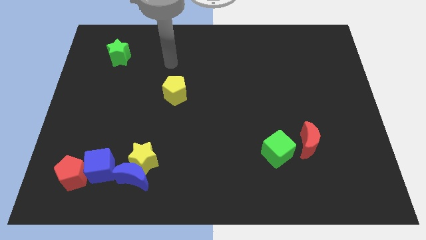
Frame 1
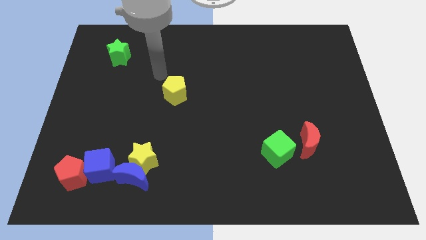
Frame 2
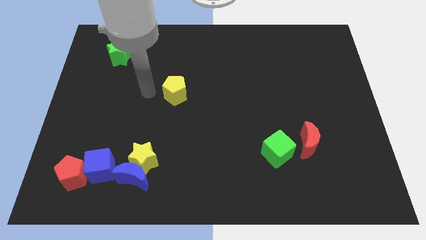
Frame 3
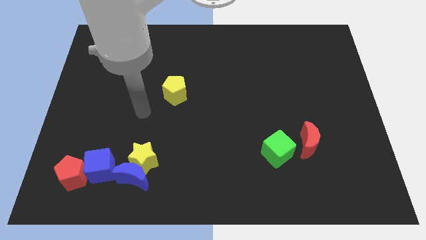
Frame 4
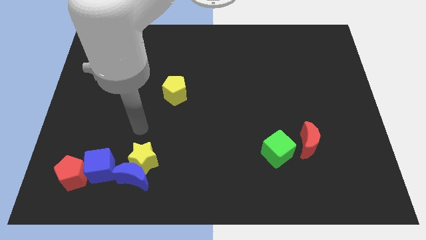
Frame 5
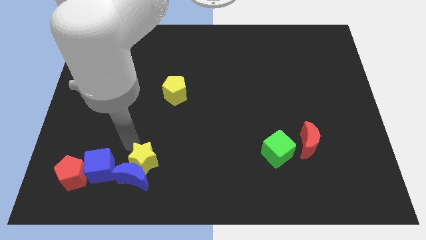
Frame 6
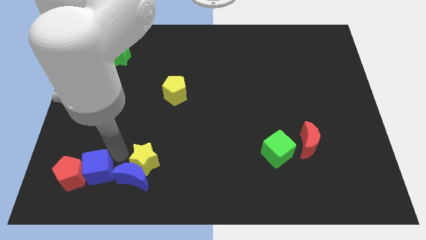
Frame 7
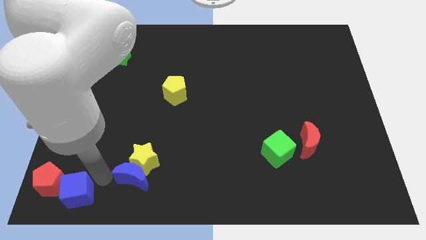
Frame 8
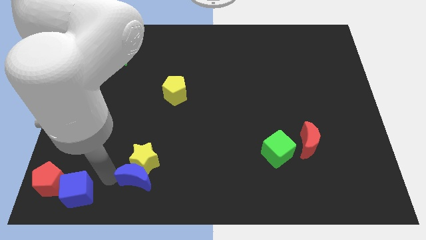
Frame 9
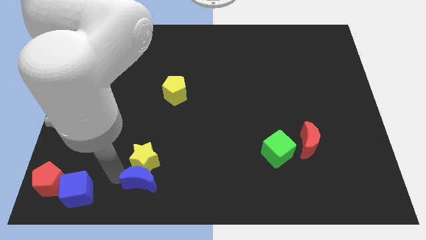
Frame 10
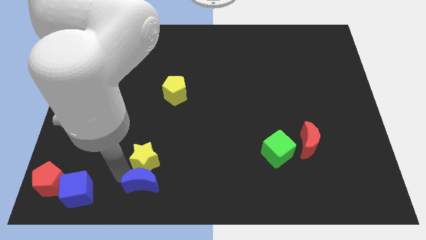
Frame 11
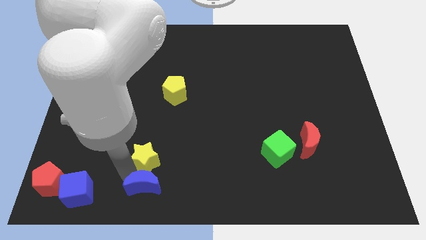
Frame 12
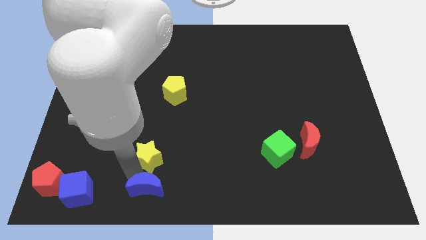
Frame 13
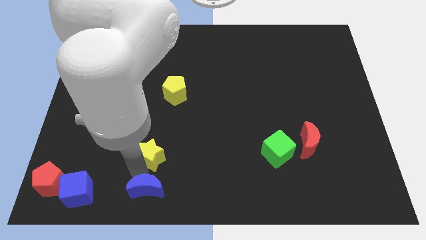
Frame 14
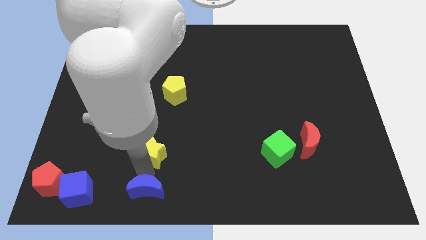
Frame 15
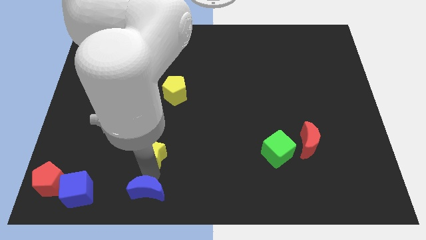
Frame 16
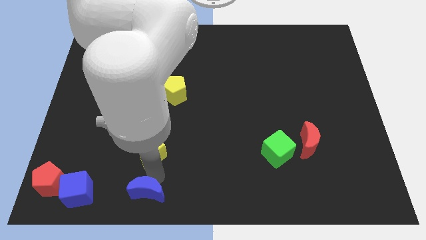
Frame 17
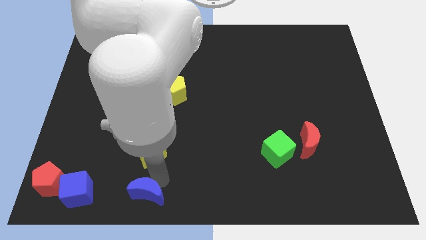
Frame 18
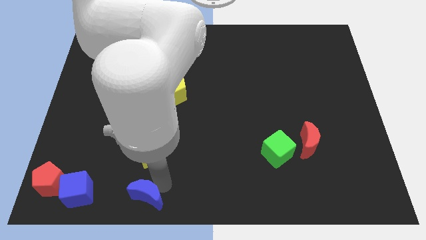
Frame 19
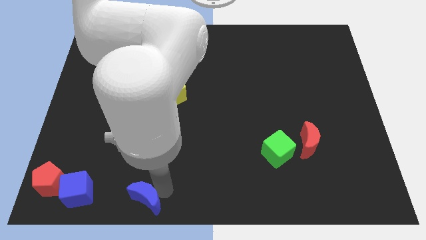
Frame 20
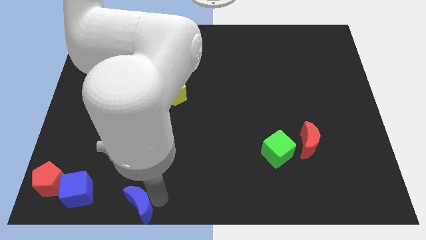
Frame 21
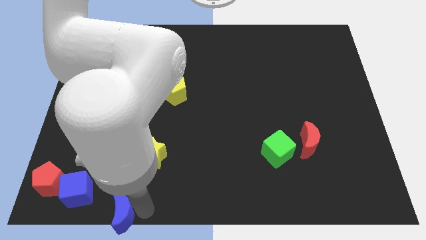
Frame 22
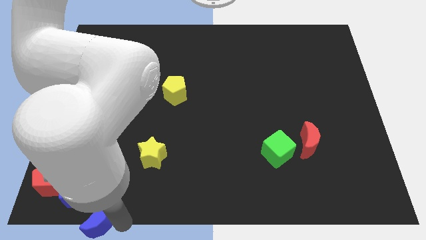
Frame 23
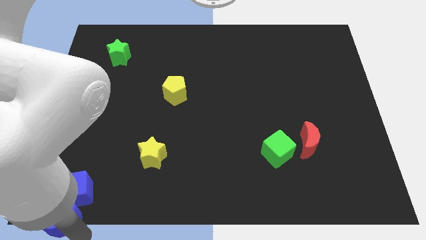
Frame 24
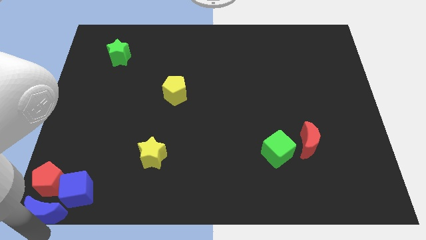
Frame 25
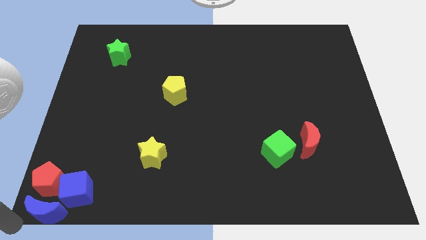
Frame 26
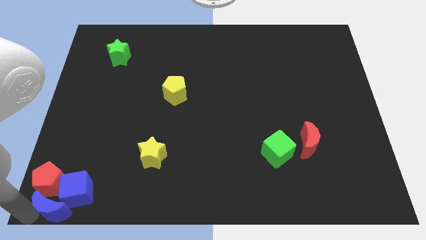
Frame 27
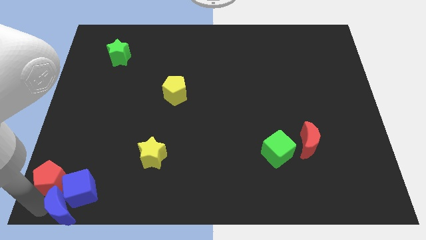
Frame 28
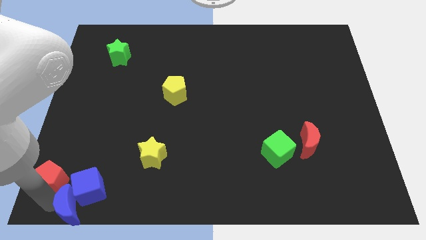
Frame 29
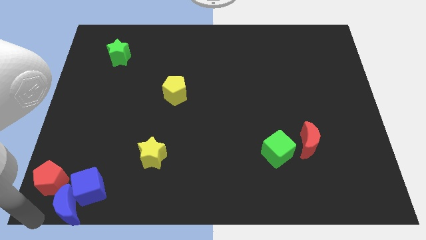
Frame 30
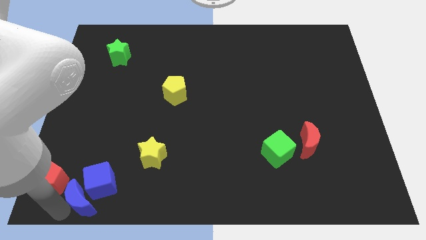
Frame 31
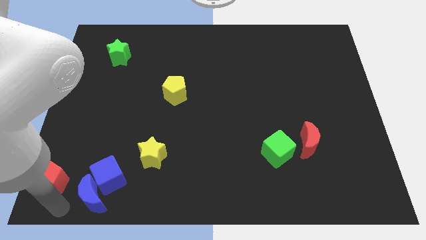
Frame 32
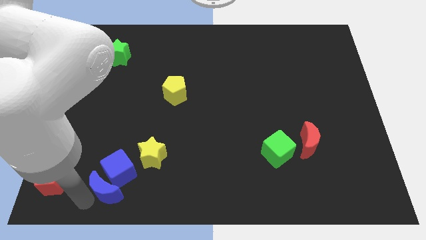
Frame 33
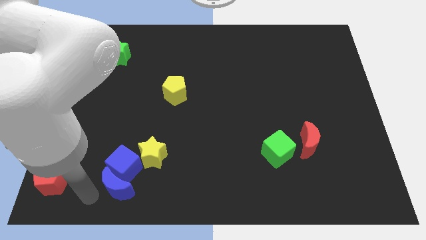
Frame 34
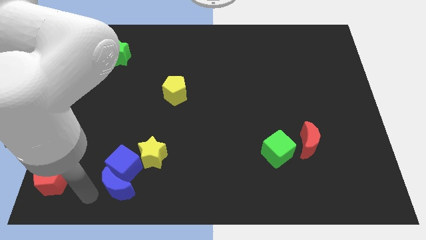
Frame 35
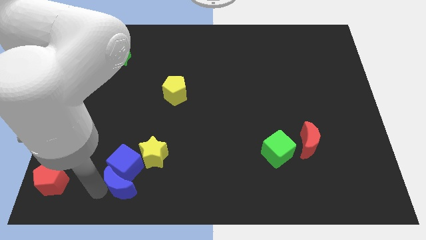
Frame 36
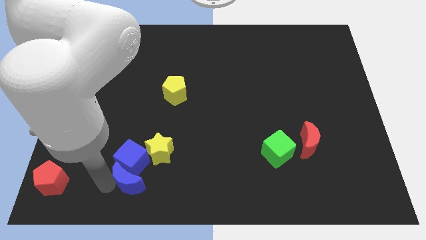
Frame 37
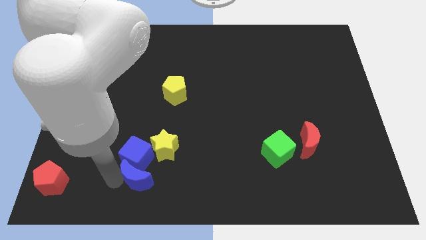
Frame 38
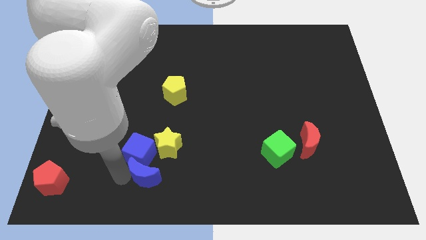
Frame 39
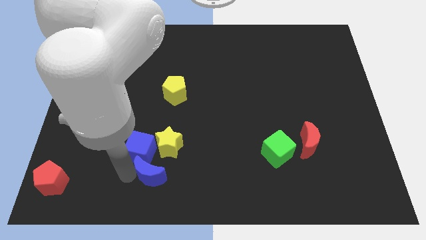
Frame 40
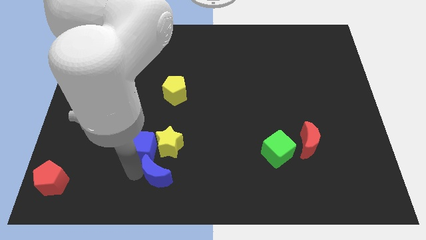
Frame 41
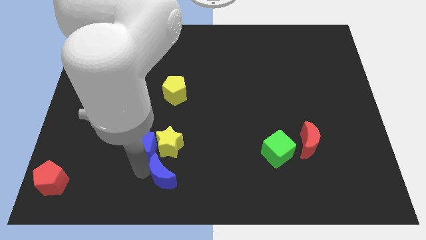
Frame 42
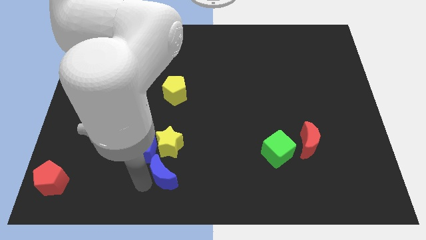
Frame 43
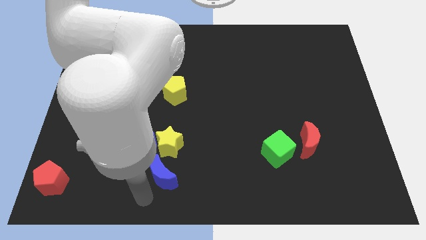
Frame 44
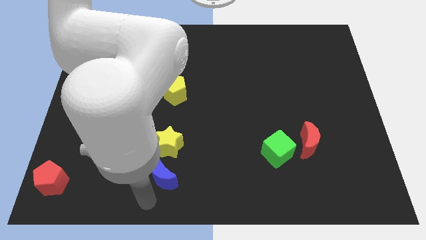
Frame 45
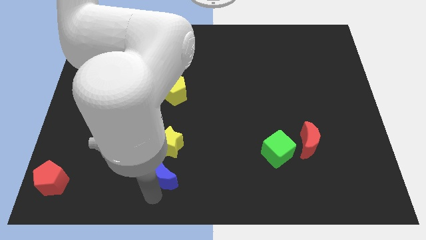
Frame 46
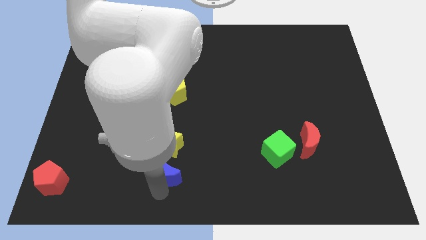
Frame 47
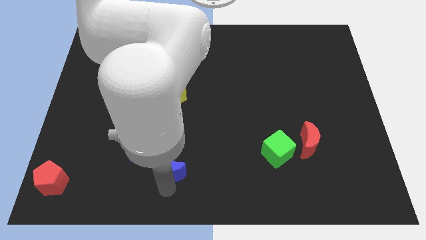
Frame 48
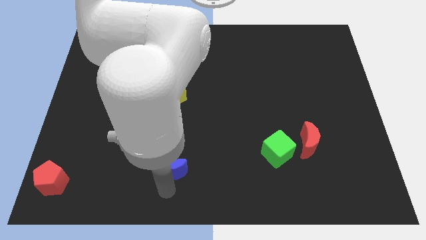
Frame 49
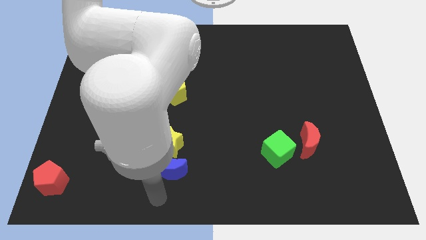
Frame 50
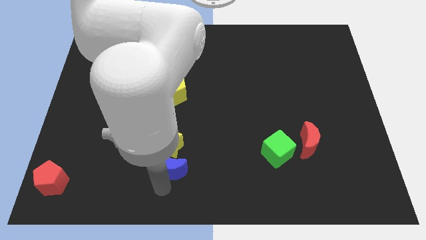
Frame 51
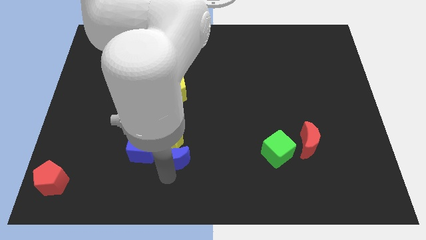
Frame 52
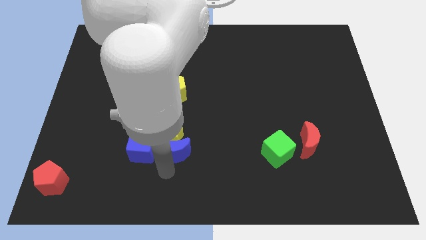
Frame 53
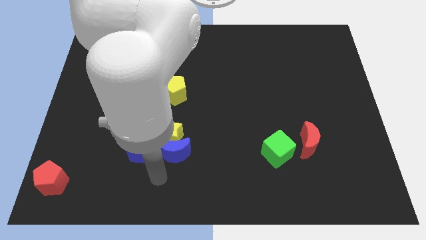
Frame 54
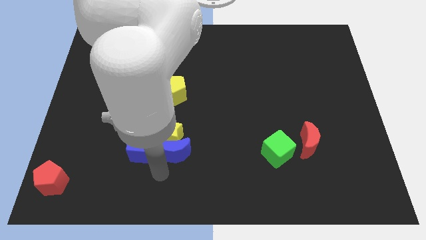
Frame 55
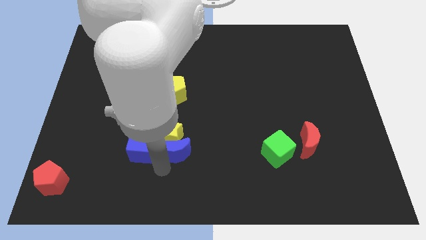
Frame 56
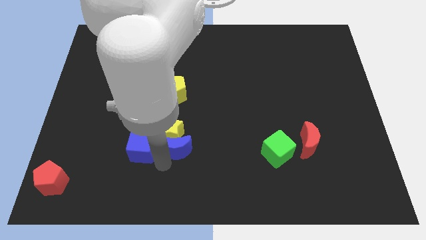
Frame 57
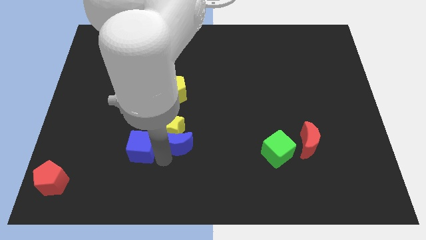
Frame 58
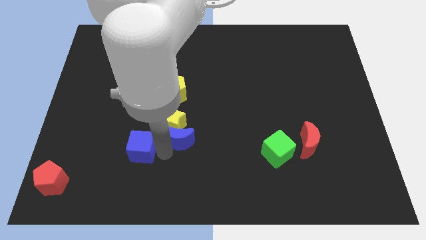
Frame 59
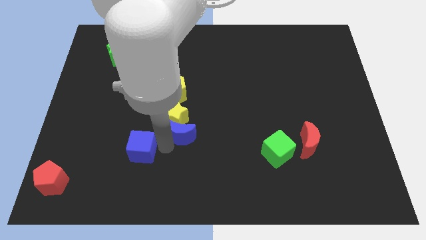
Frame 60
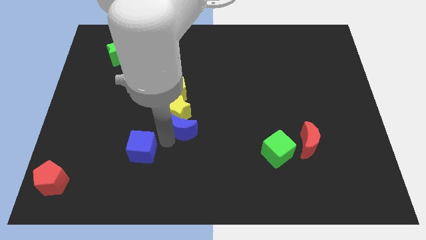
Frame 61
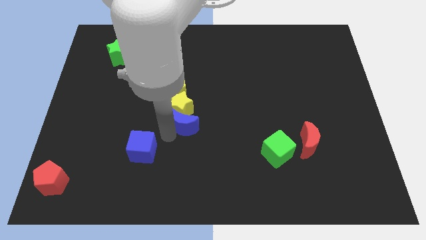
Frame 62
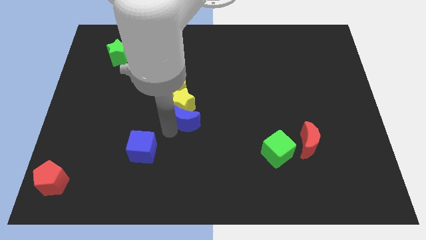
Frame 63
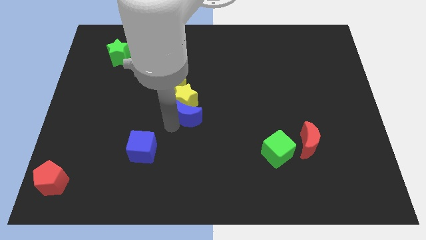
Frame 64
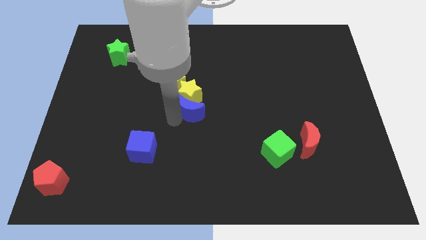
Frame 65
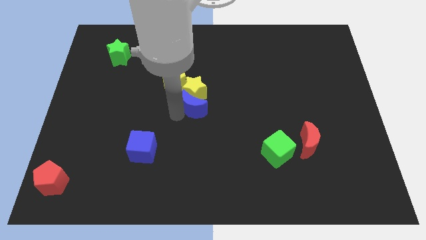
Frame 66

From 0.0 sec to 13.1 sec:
slide the blue moon up and right

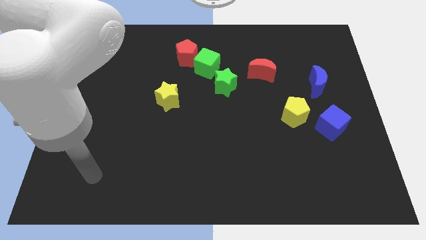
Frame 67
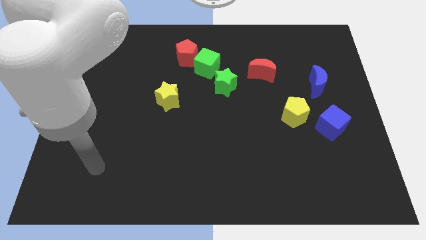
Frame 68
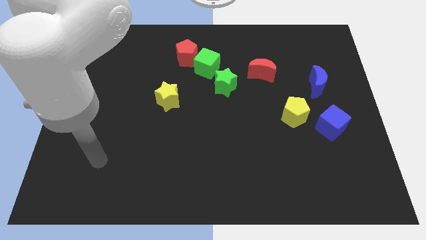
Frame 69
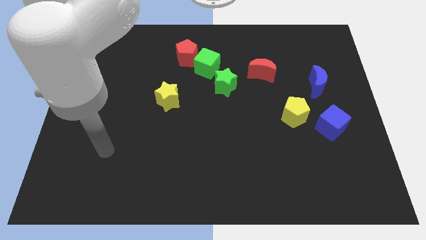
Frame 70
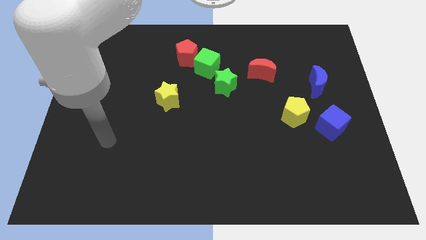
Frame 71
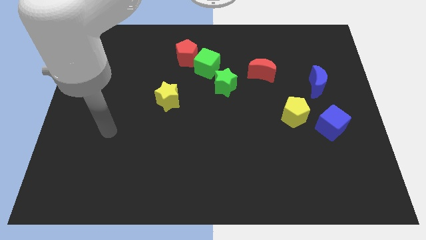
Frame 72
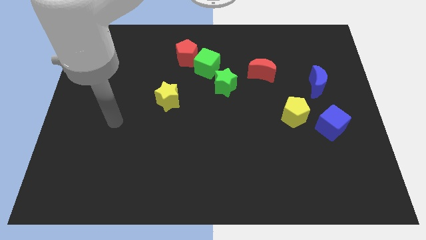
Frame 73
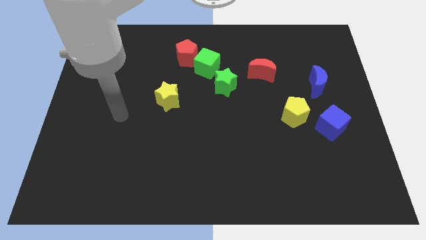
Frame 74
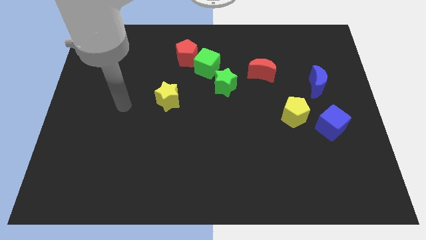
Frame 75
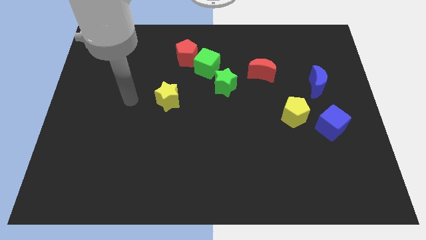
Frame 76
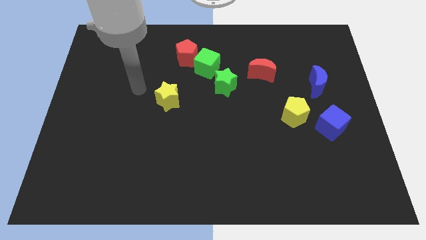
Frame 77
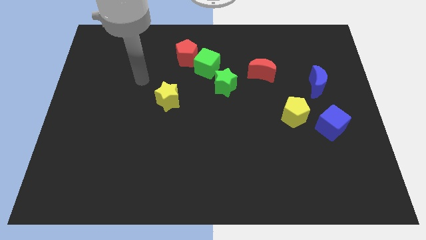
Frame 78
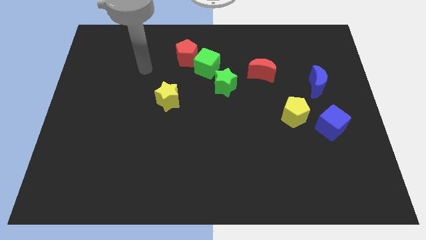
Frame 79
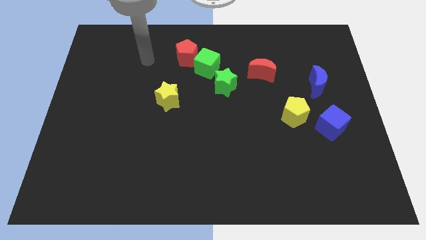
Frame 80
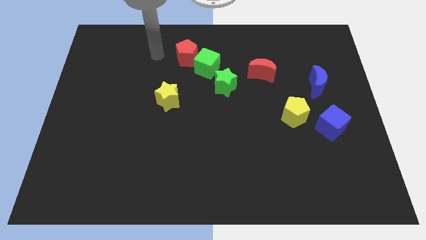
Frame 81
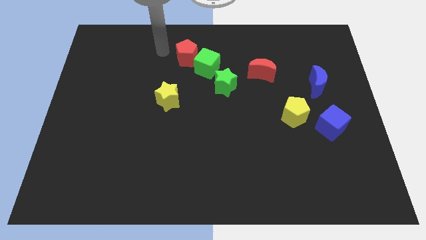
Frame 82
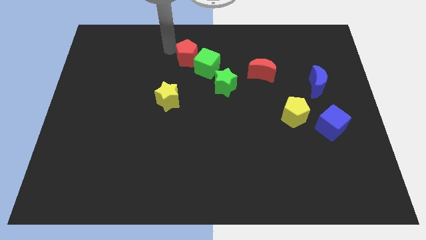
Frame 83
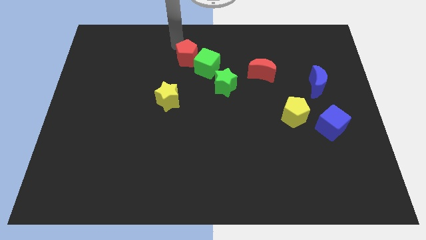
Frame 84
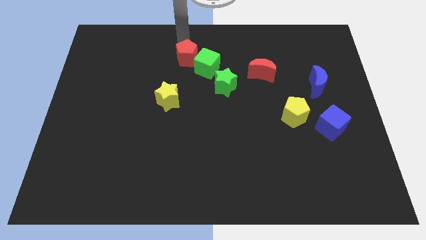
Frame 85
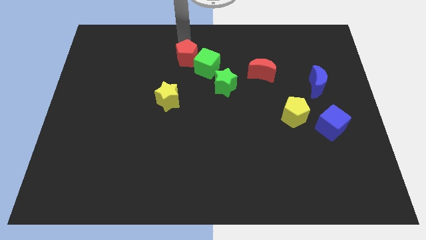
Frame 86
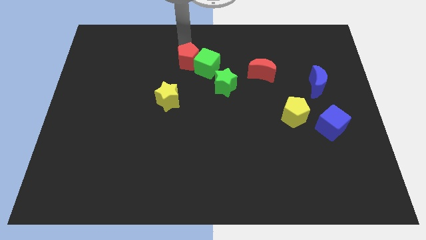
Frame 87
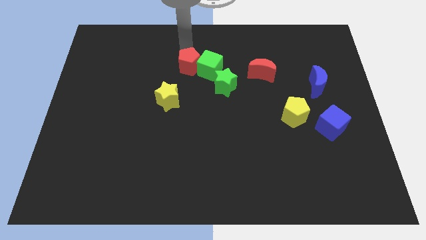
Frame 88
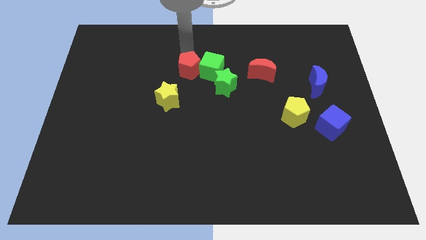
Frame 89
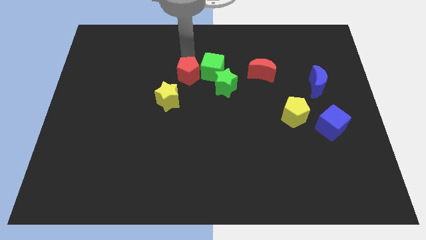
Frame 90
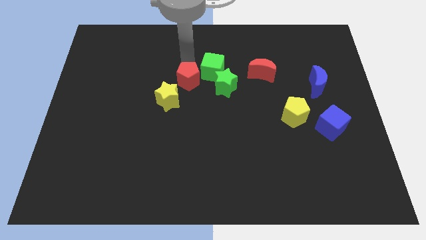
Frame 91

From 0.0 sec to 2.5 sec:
move the red pentagon down a little
